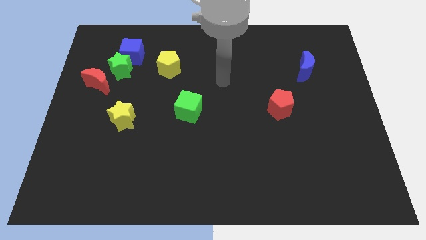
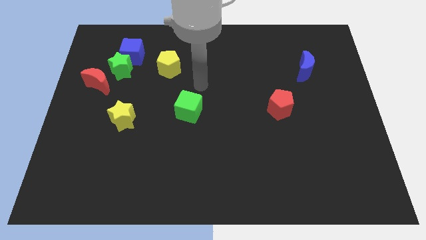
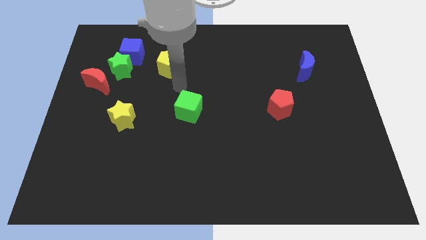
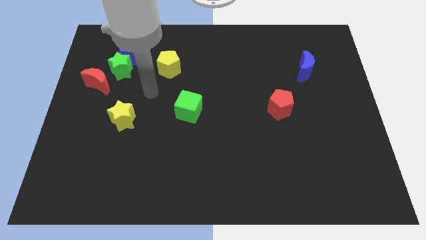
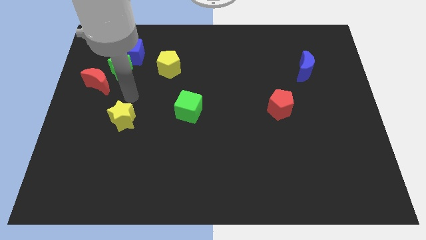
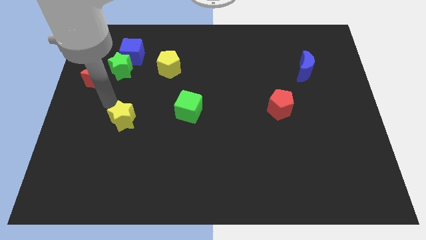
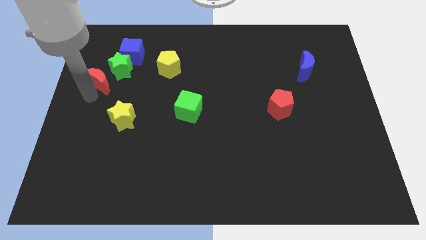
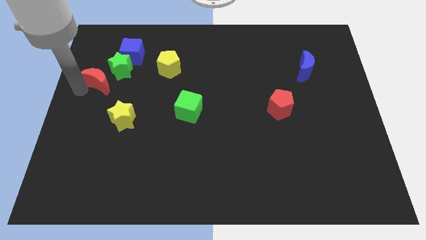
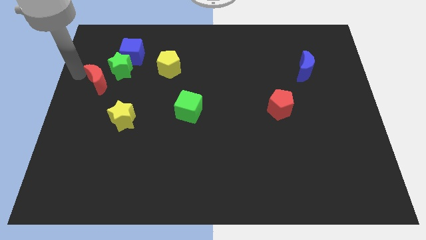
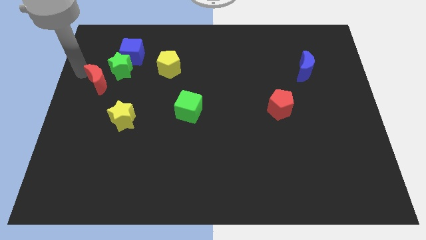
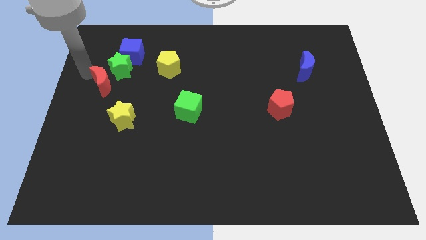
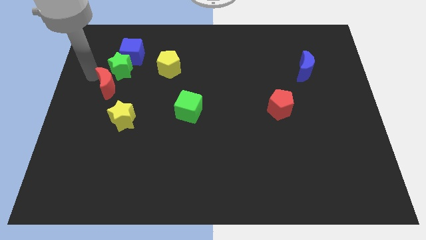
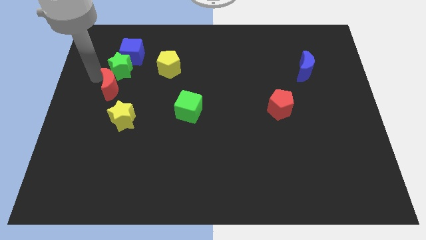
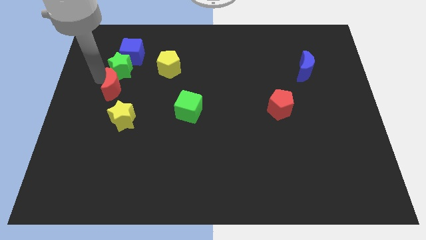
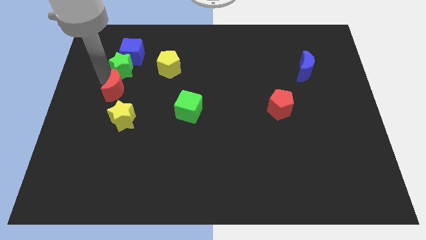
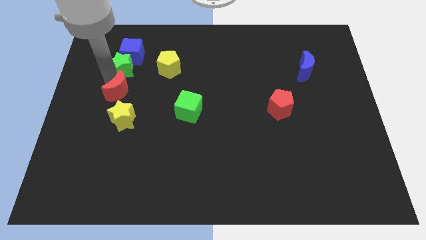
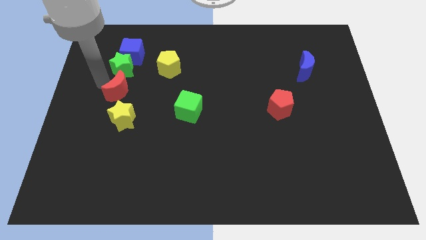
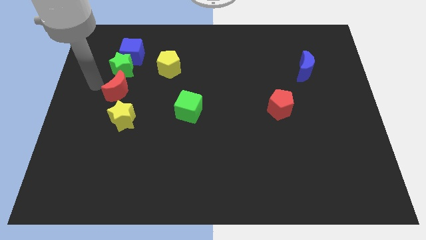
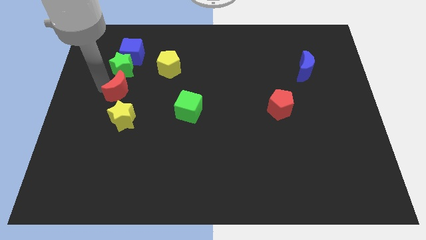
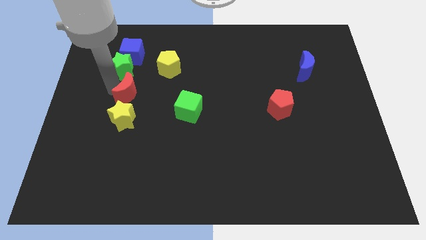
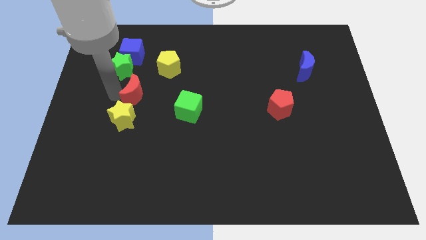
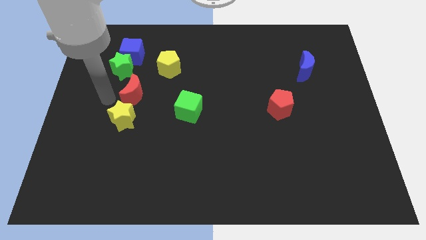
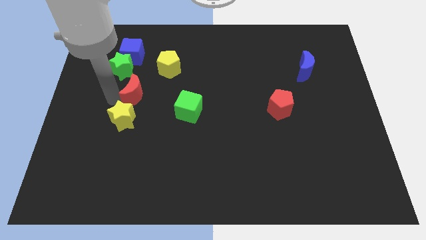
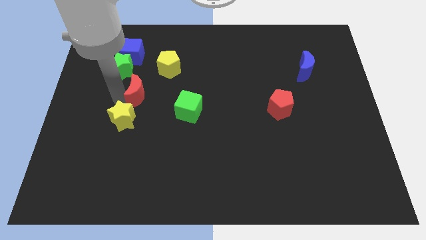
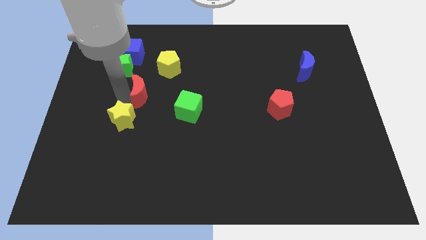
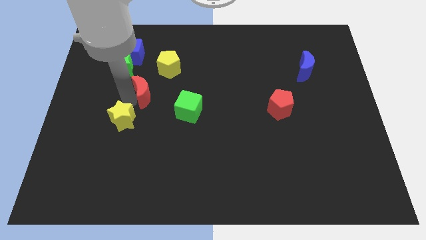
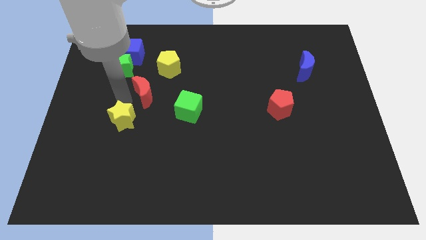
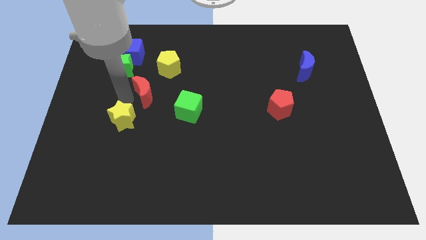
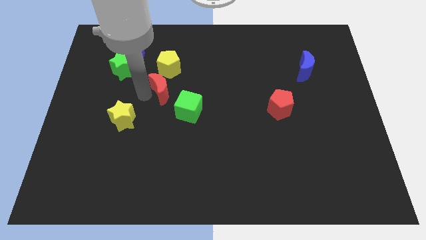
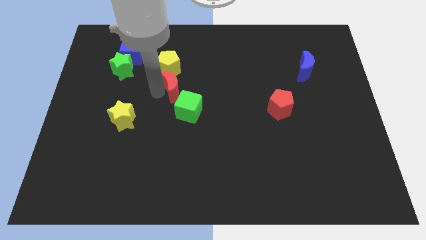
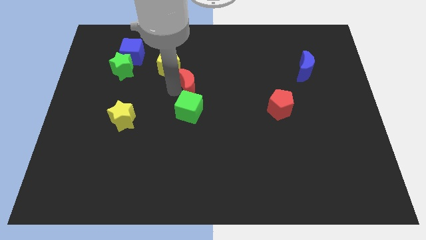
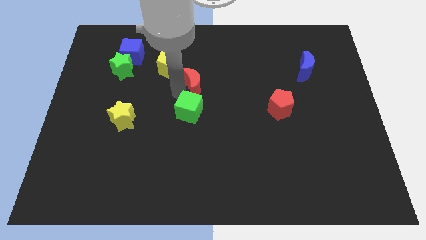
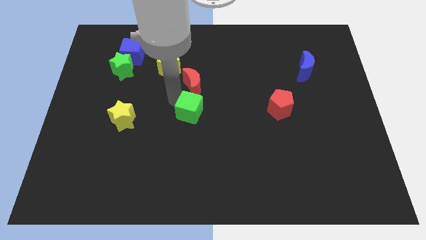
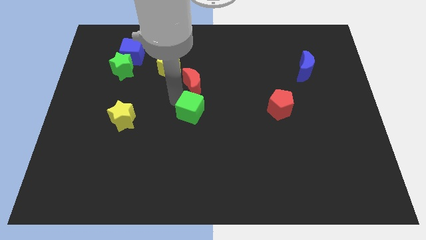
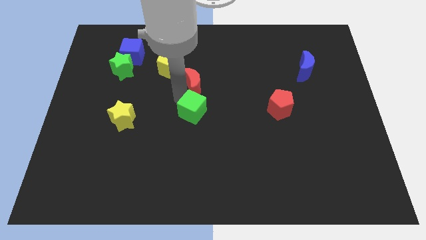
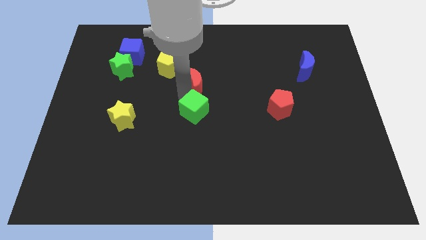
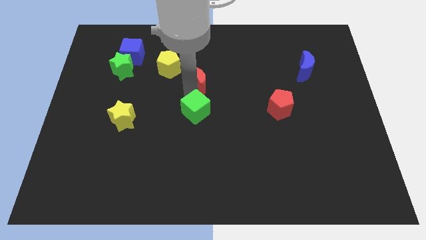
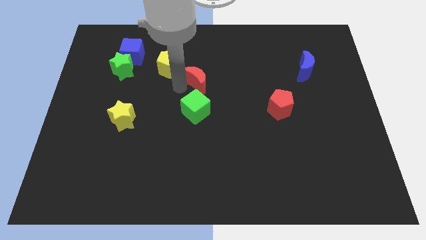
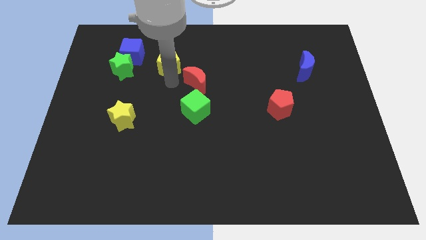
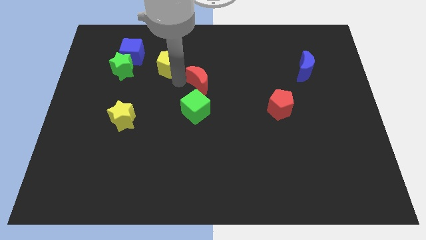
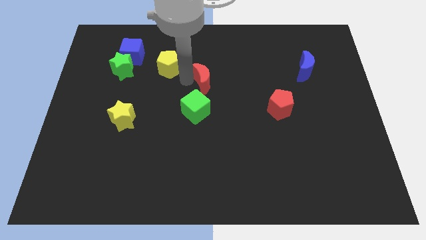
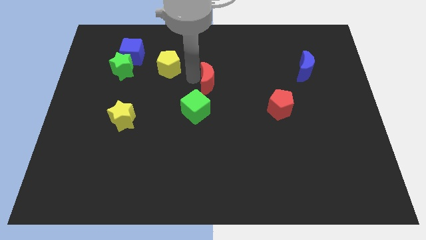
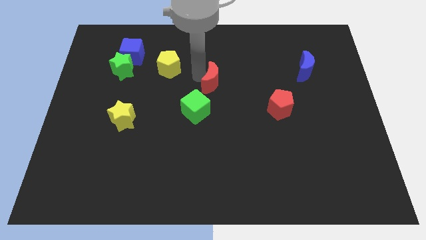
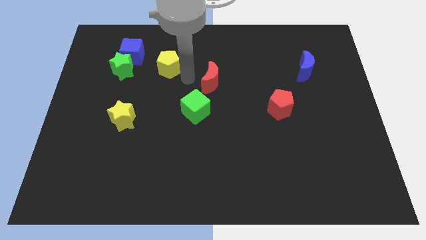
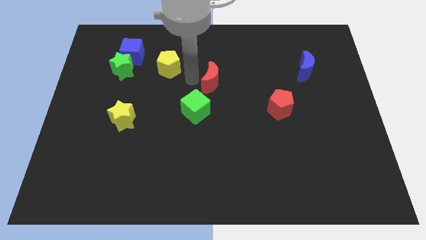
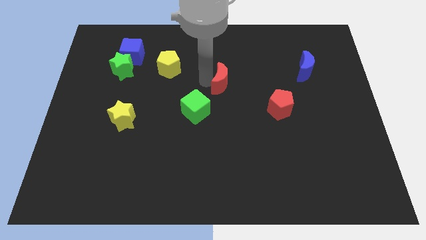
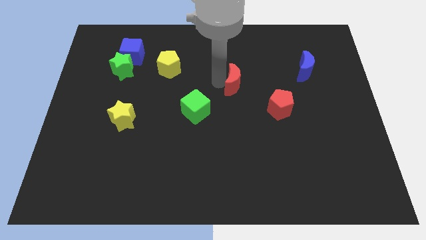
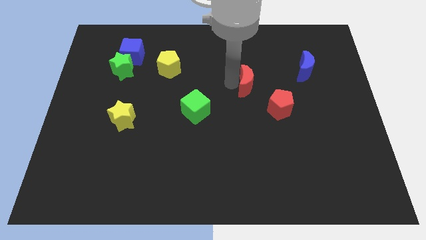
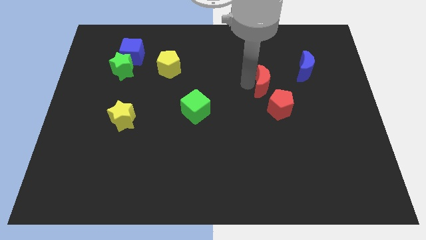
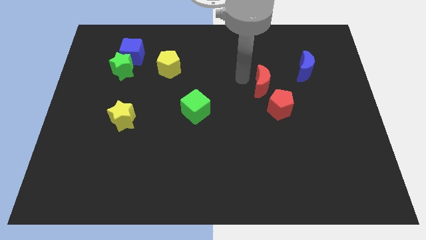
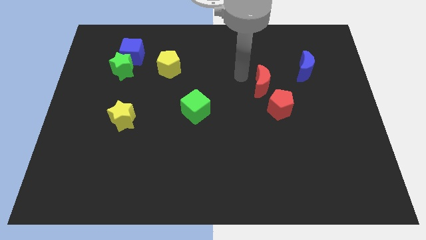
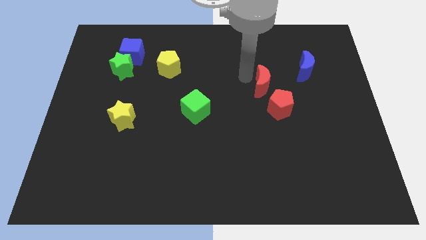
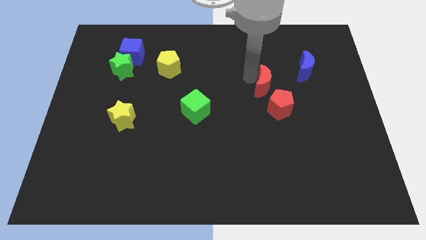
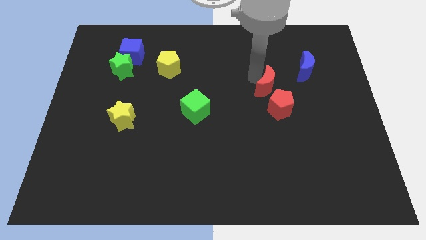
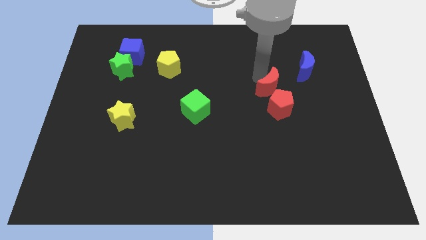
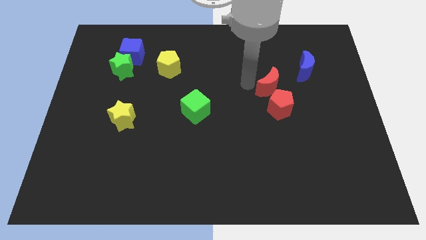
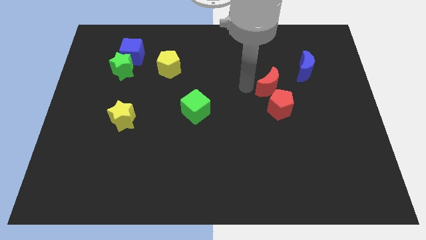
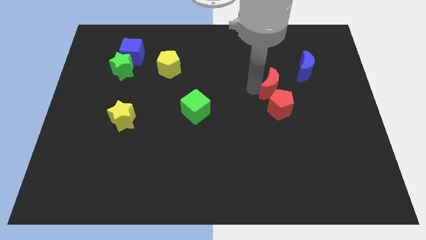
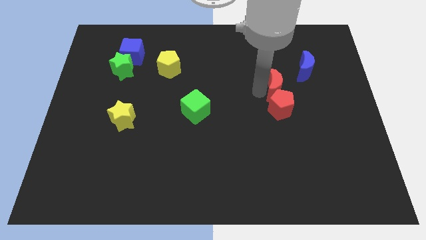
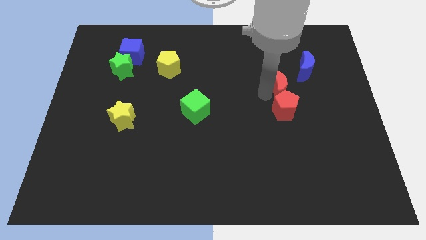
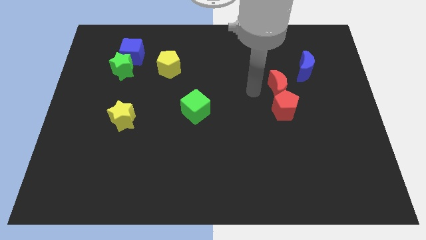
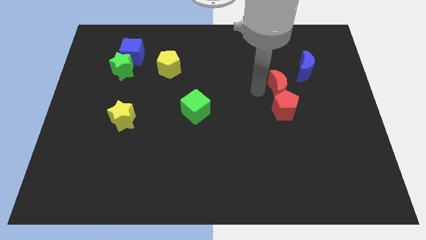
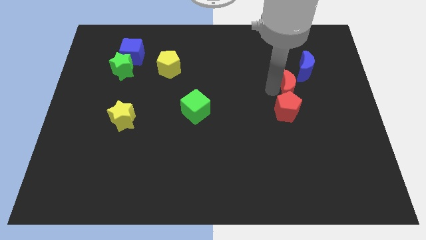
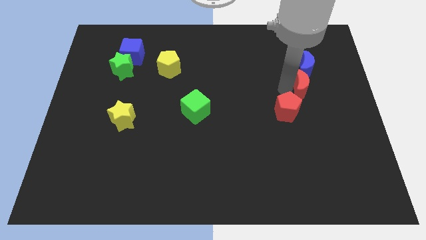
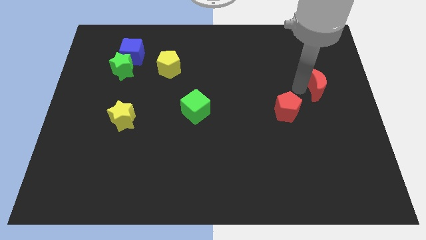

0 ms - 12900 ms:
slide the red moon to the right side
